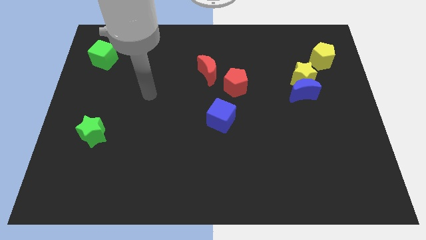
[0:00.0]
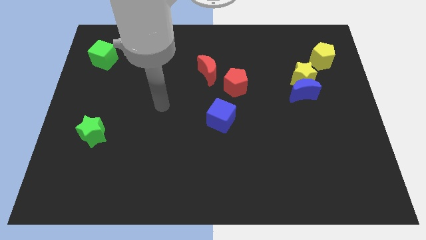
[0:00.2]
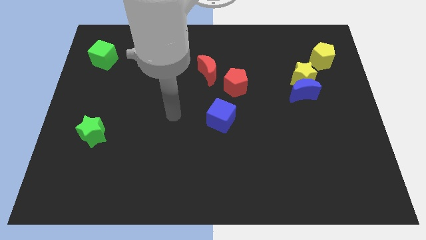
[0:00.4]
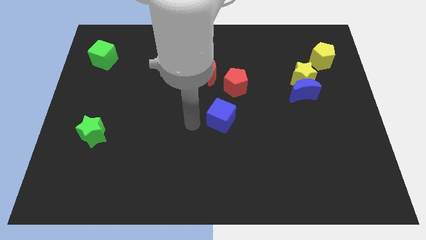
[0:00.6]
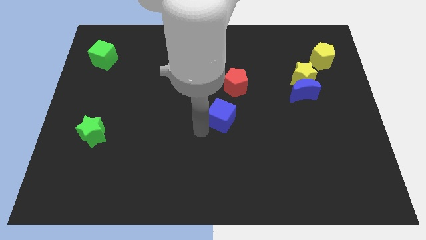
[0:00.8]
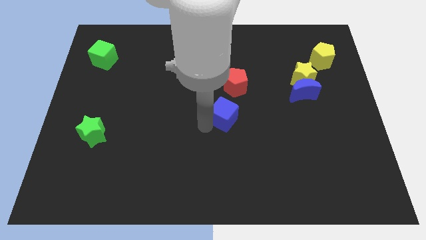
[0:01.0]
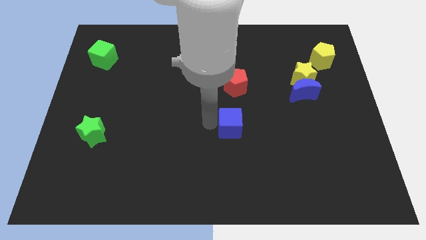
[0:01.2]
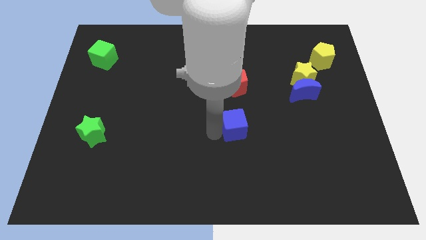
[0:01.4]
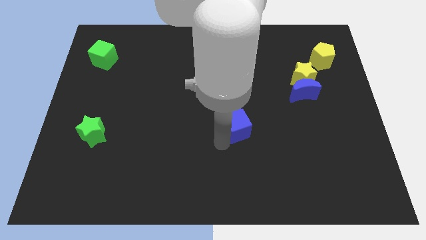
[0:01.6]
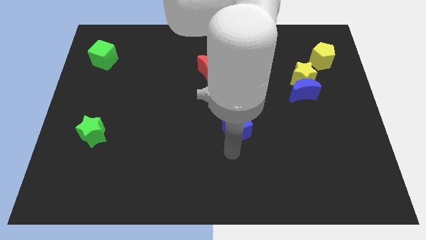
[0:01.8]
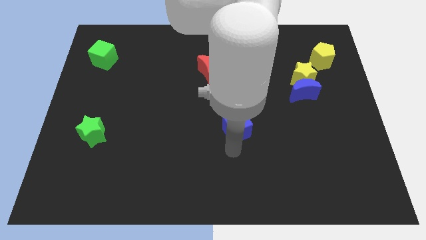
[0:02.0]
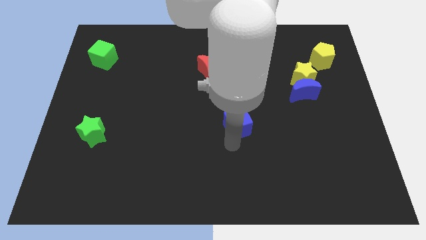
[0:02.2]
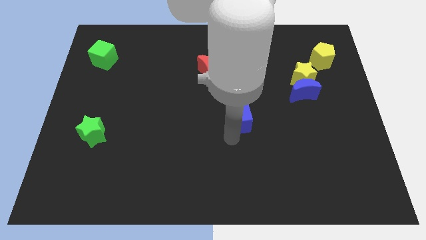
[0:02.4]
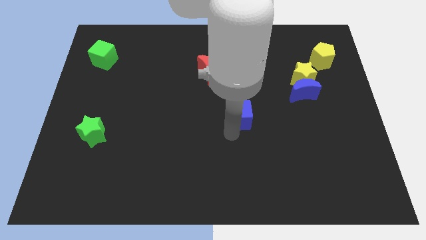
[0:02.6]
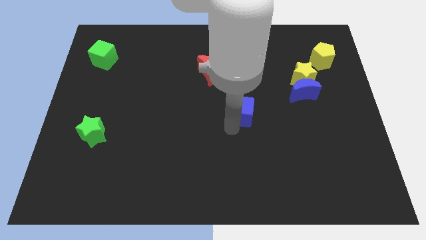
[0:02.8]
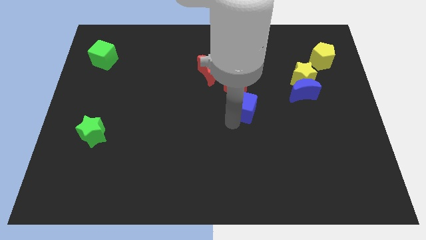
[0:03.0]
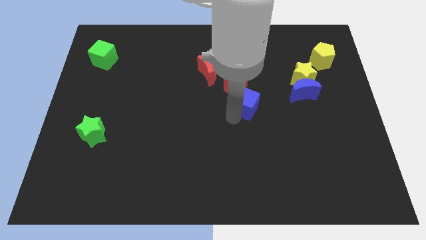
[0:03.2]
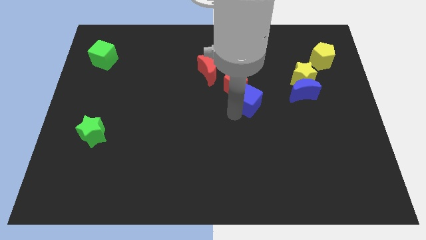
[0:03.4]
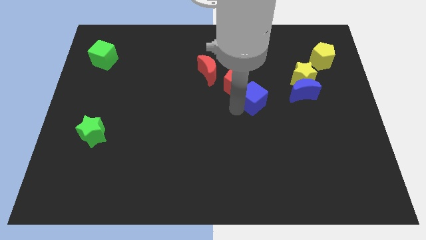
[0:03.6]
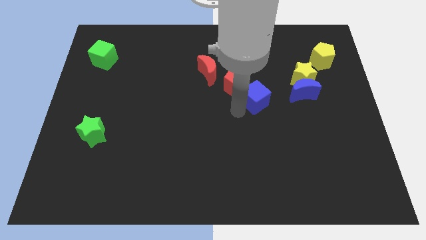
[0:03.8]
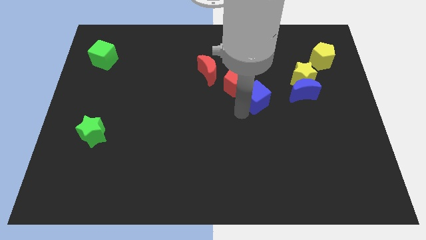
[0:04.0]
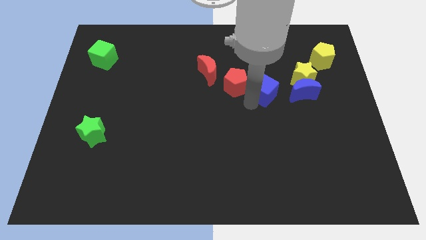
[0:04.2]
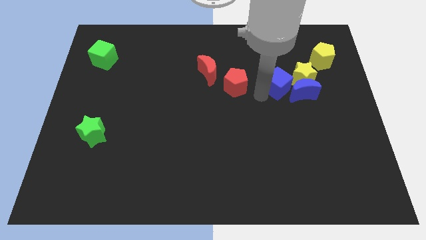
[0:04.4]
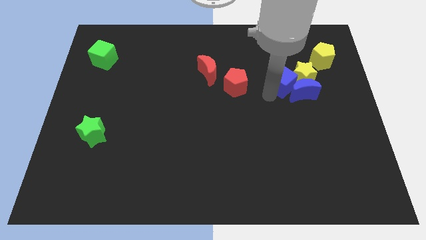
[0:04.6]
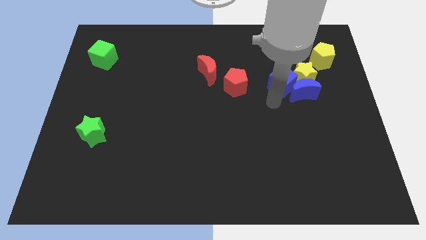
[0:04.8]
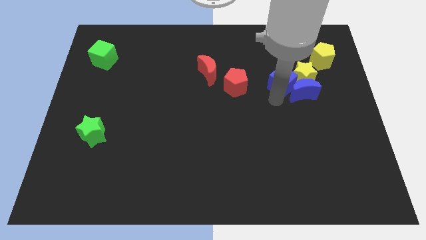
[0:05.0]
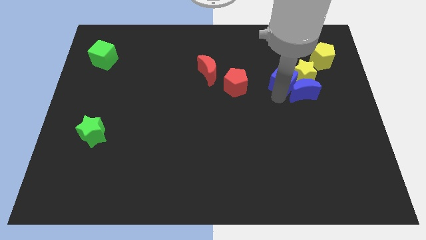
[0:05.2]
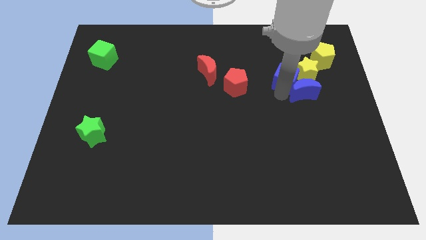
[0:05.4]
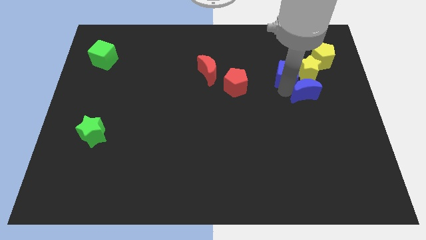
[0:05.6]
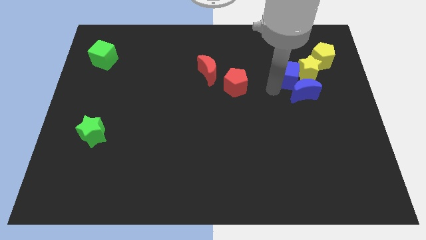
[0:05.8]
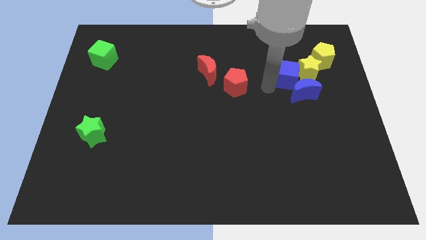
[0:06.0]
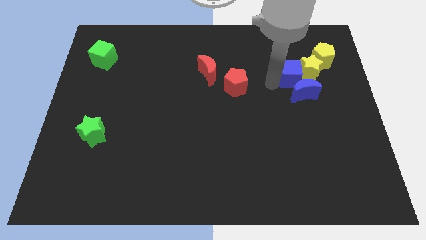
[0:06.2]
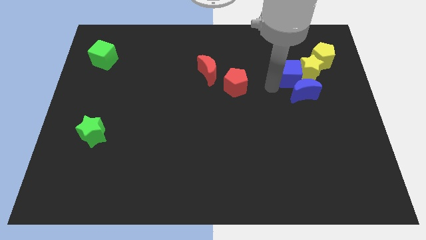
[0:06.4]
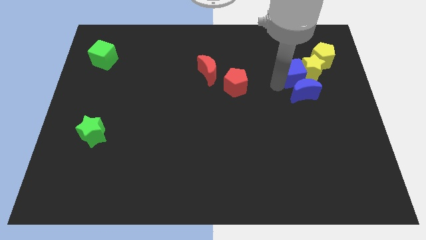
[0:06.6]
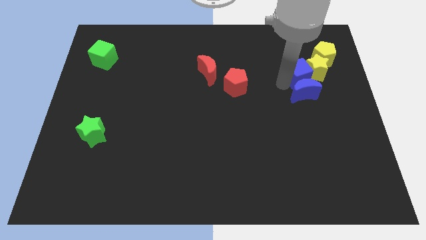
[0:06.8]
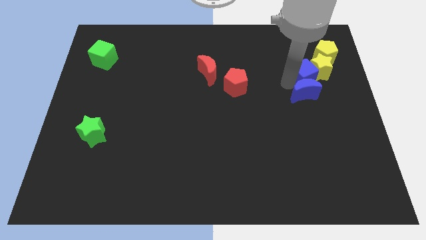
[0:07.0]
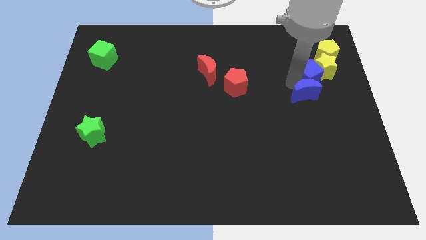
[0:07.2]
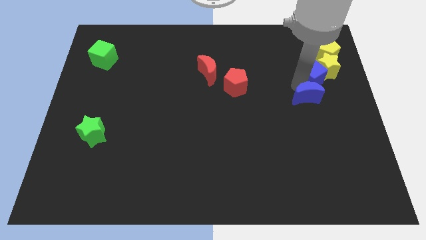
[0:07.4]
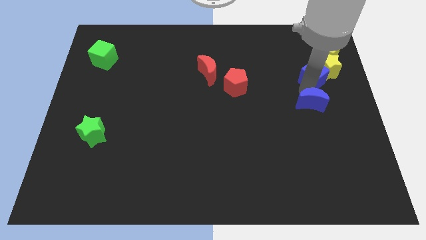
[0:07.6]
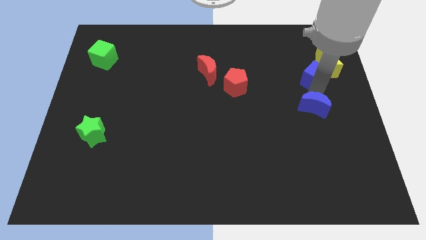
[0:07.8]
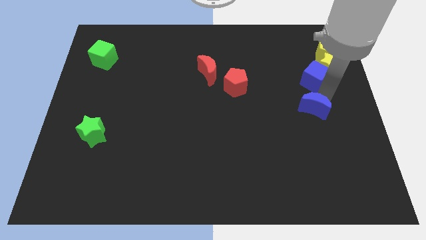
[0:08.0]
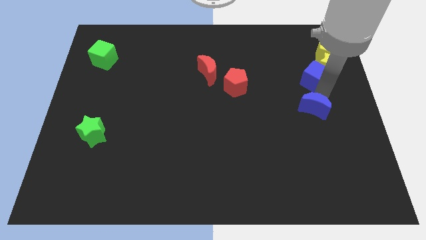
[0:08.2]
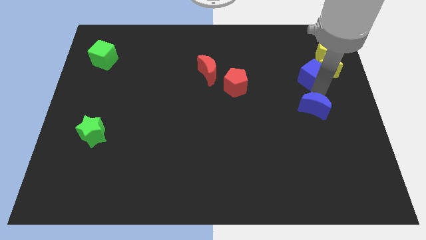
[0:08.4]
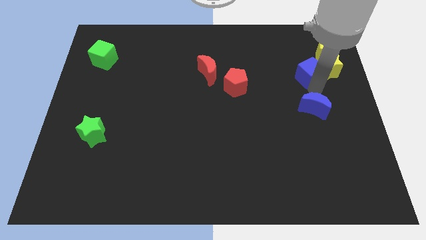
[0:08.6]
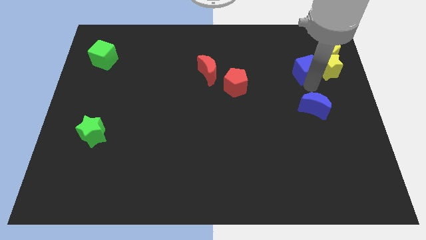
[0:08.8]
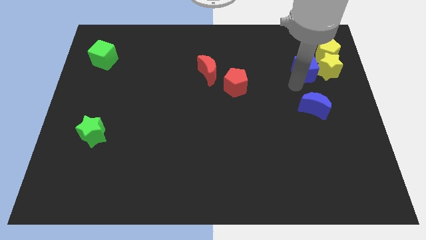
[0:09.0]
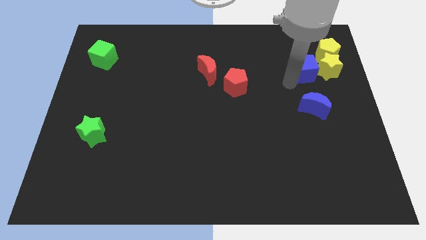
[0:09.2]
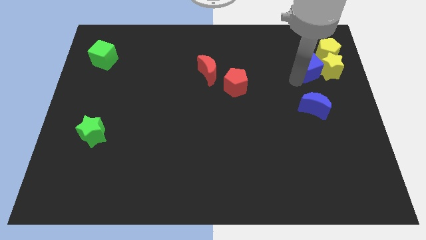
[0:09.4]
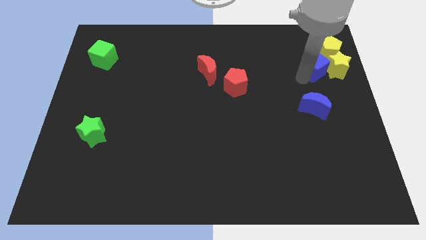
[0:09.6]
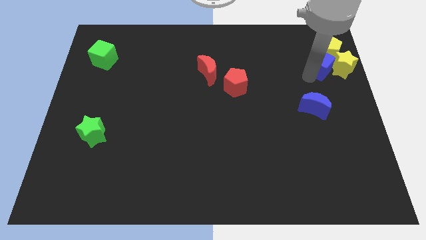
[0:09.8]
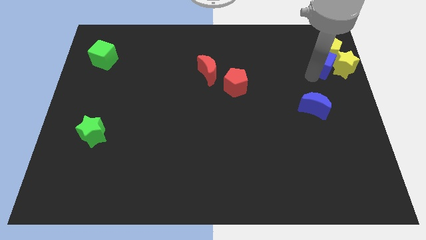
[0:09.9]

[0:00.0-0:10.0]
move the blue cube next to the yellow pentagon

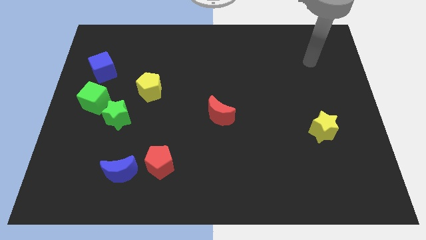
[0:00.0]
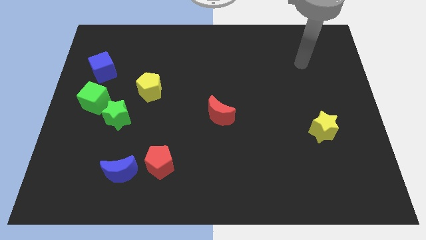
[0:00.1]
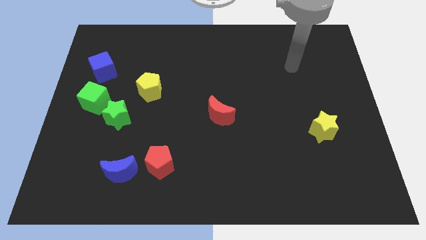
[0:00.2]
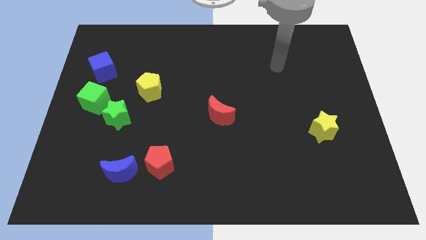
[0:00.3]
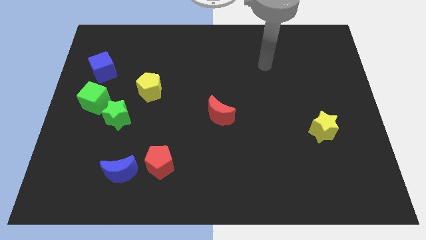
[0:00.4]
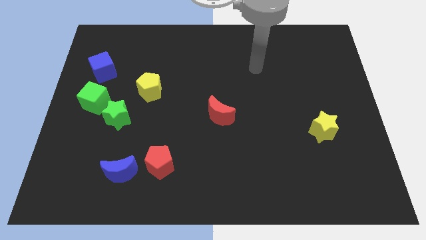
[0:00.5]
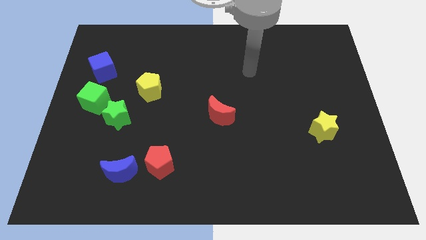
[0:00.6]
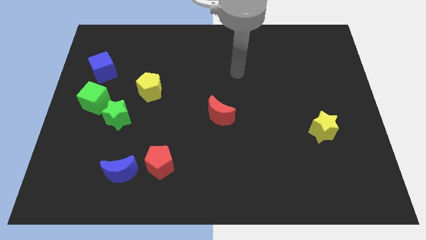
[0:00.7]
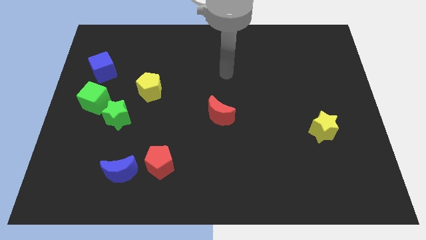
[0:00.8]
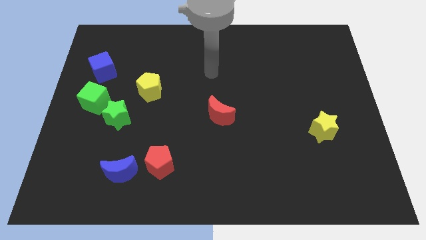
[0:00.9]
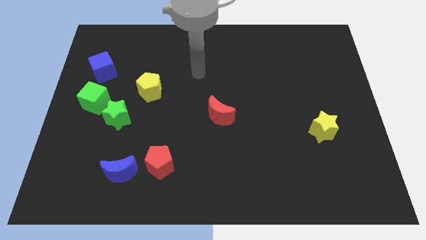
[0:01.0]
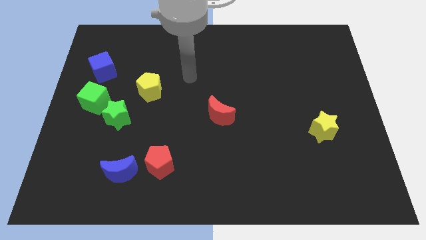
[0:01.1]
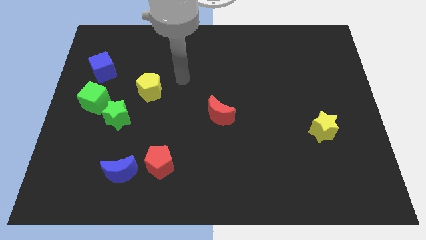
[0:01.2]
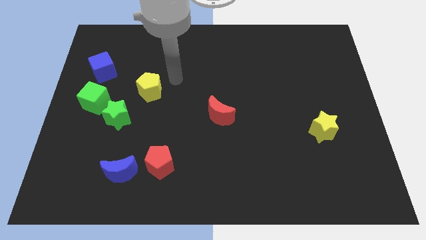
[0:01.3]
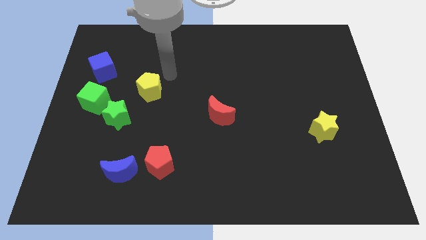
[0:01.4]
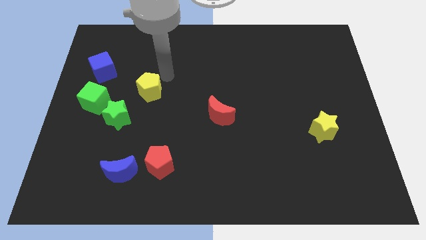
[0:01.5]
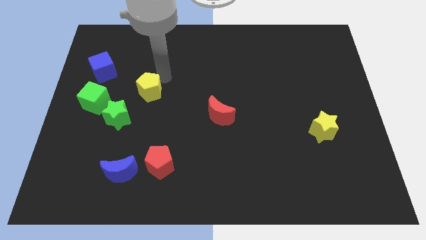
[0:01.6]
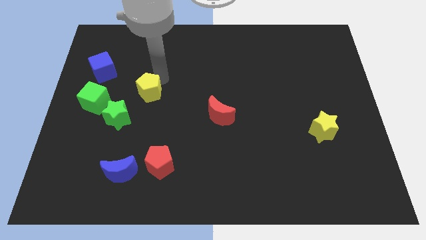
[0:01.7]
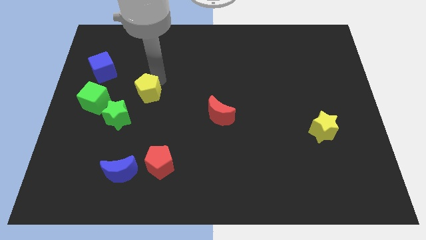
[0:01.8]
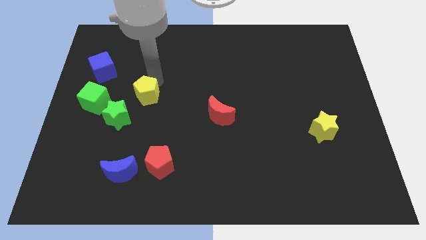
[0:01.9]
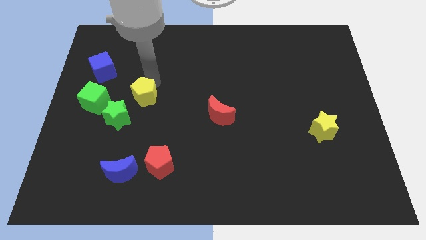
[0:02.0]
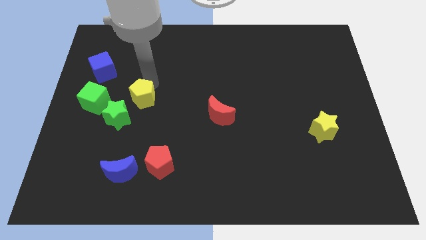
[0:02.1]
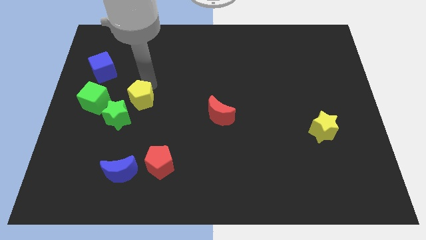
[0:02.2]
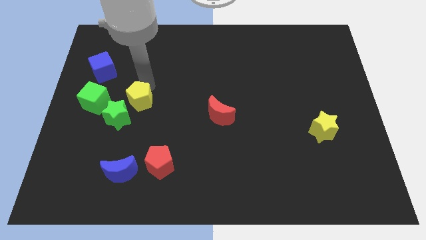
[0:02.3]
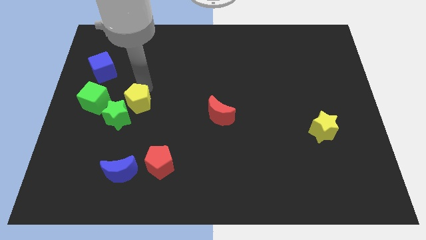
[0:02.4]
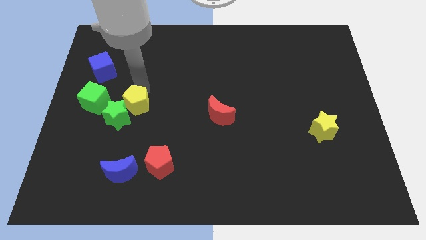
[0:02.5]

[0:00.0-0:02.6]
push the yellow pentagon to the green star

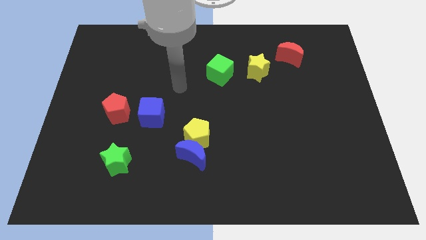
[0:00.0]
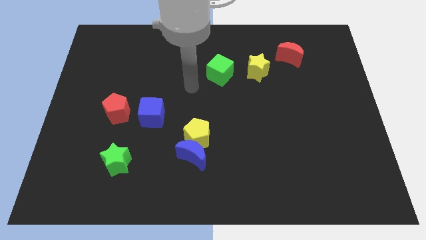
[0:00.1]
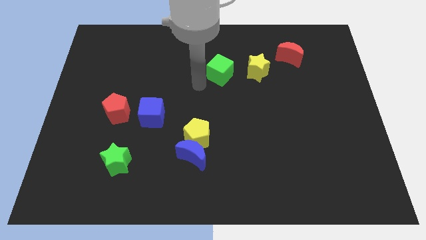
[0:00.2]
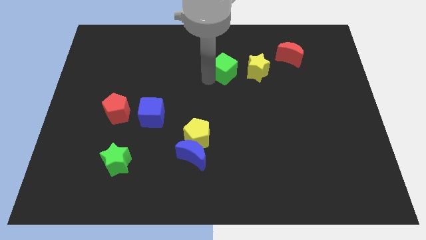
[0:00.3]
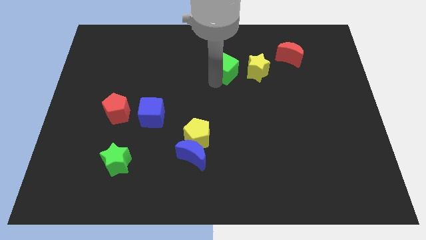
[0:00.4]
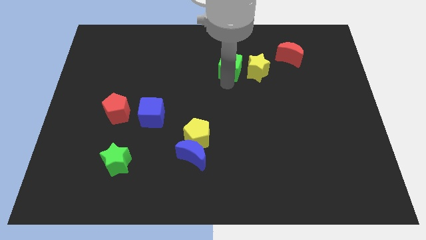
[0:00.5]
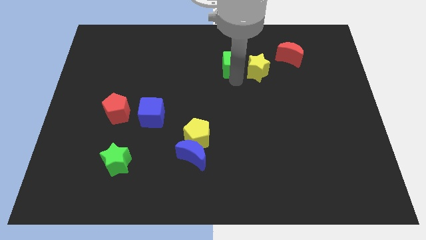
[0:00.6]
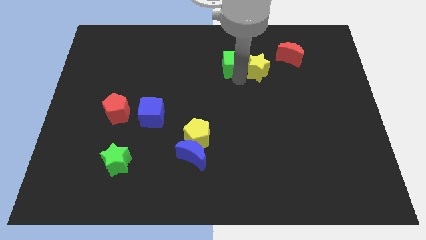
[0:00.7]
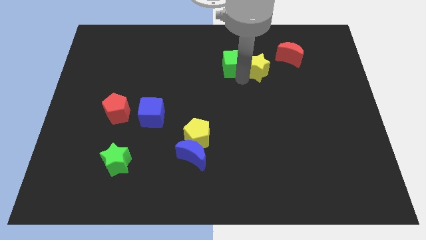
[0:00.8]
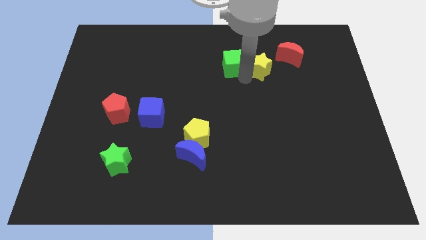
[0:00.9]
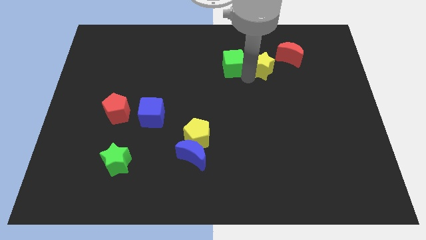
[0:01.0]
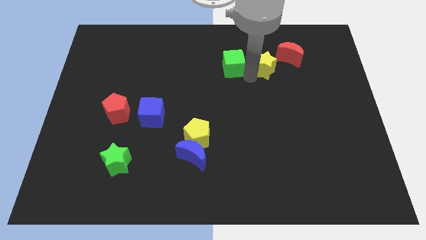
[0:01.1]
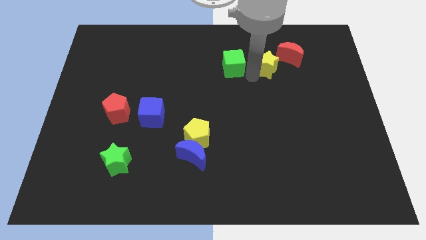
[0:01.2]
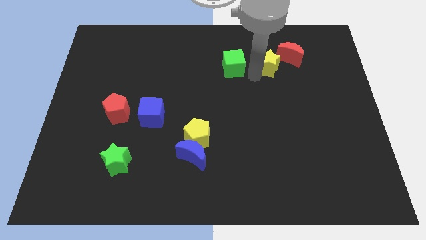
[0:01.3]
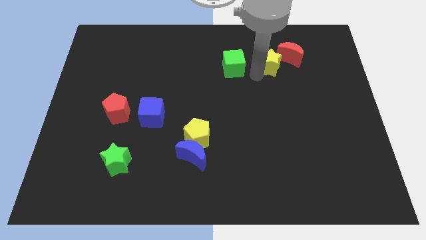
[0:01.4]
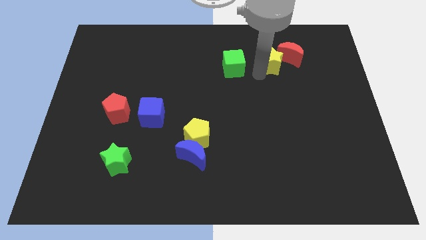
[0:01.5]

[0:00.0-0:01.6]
move the yellow star close to the red moon
